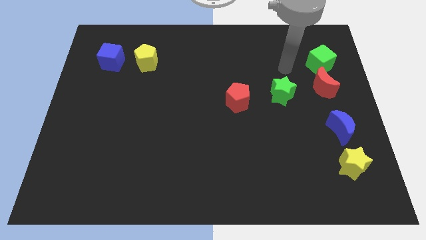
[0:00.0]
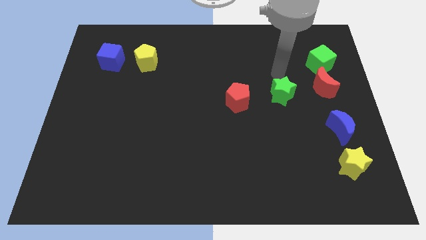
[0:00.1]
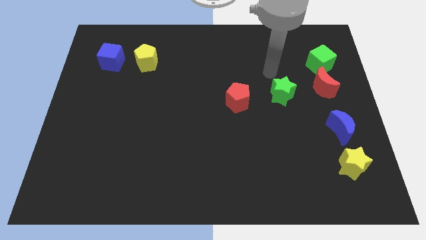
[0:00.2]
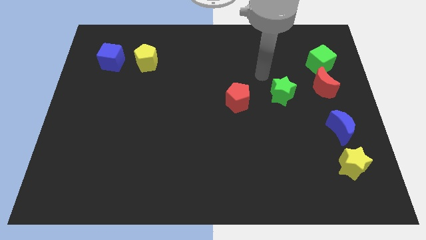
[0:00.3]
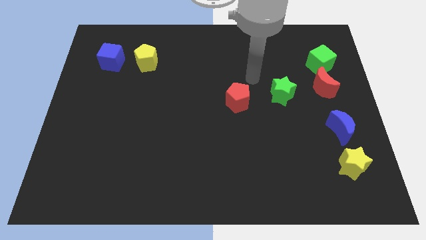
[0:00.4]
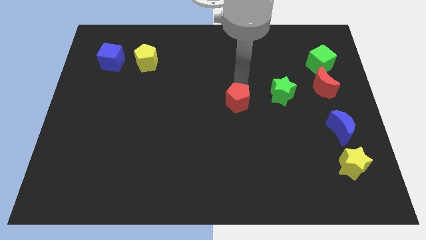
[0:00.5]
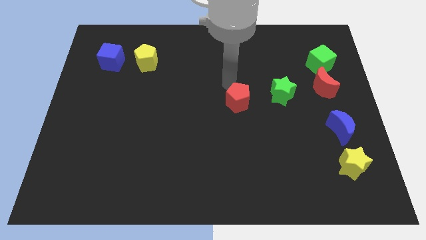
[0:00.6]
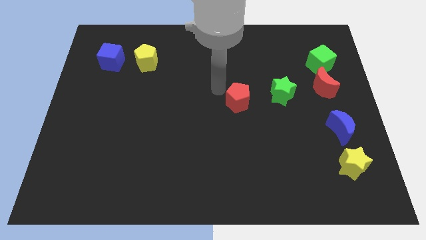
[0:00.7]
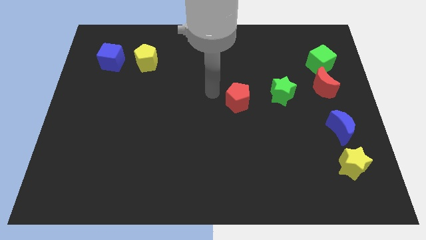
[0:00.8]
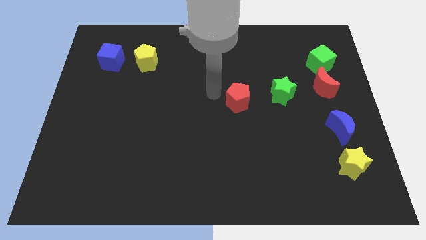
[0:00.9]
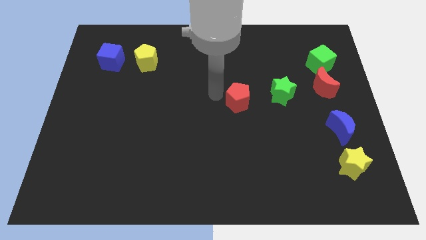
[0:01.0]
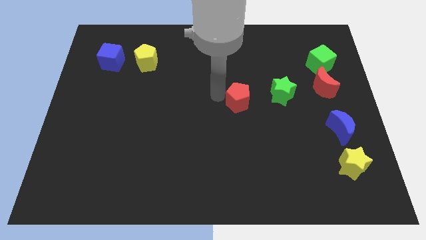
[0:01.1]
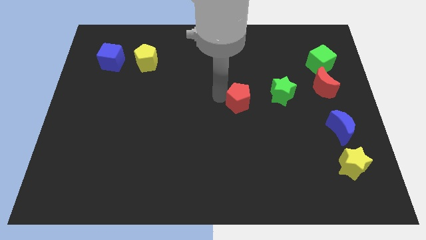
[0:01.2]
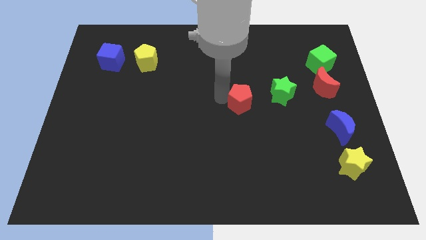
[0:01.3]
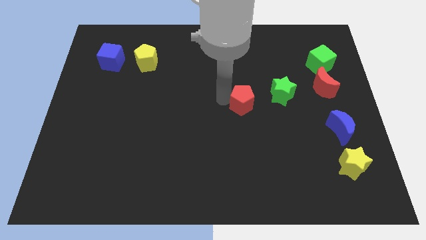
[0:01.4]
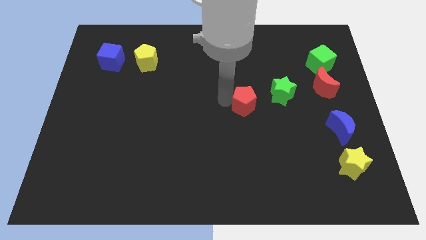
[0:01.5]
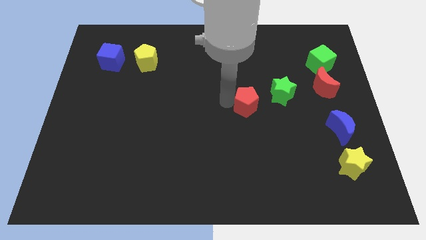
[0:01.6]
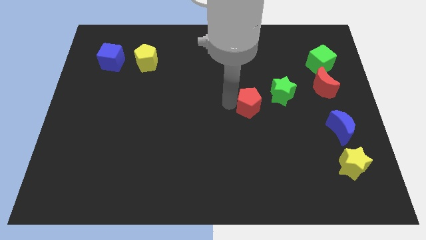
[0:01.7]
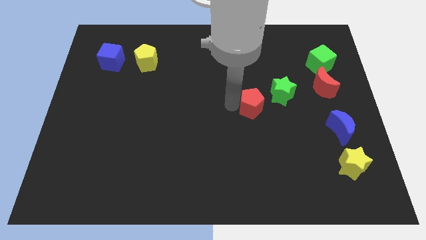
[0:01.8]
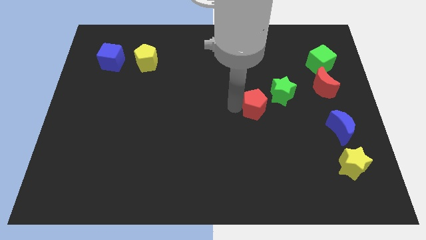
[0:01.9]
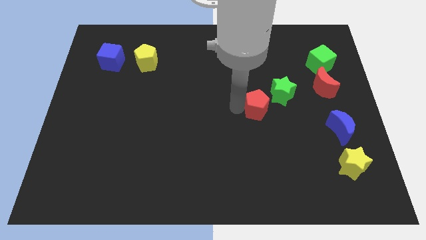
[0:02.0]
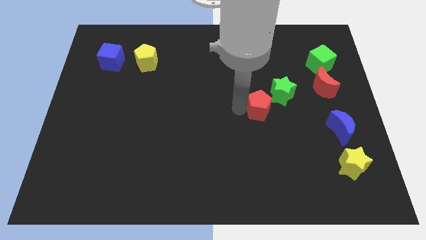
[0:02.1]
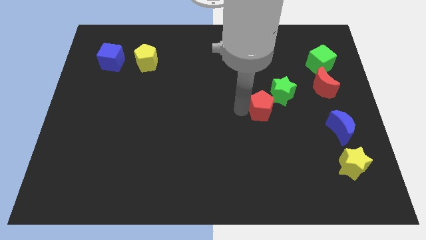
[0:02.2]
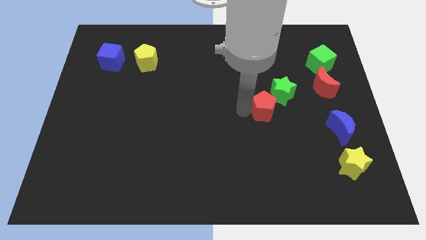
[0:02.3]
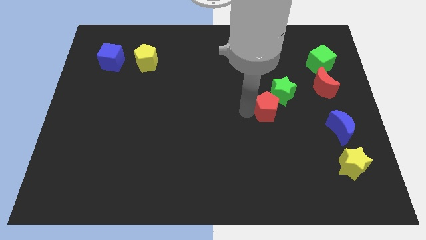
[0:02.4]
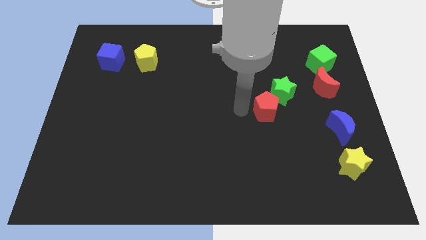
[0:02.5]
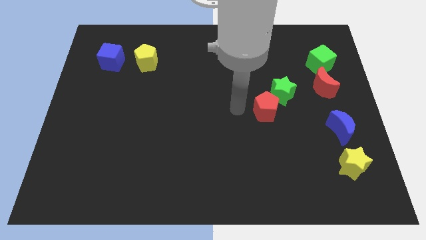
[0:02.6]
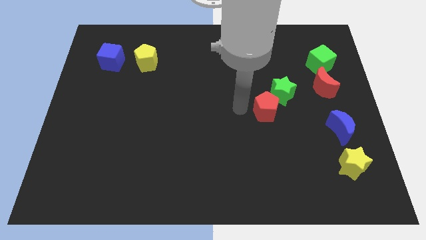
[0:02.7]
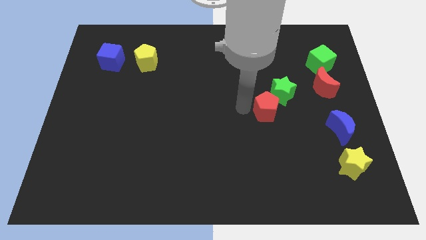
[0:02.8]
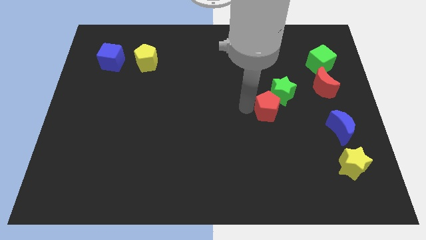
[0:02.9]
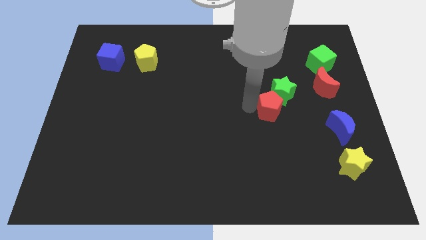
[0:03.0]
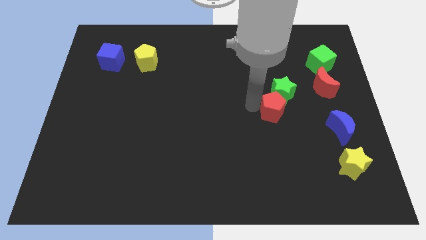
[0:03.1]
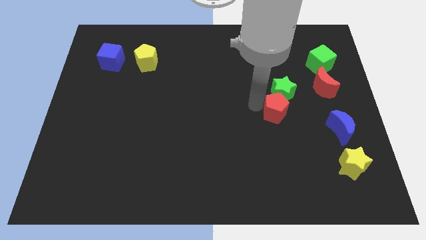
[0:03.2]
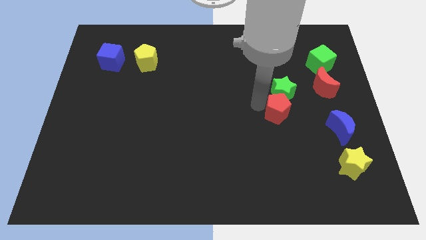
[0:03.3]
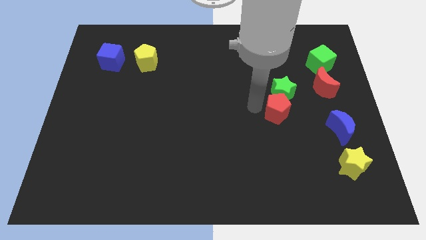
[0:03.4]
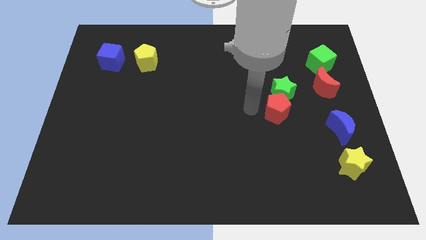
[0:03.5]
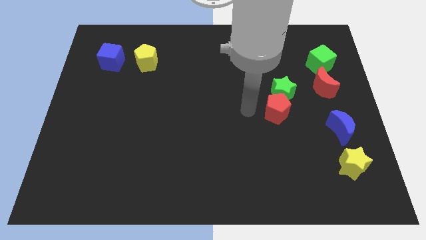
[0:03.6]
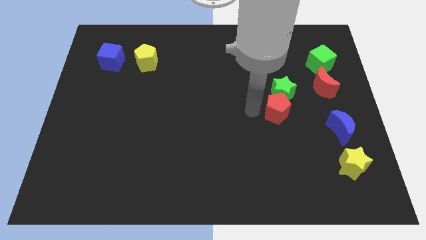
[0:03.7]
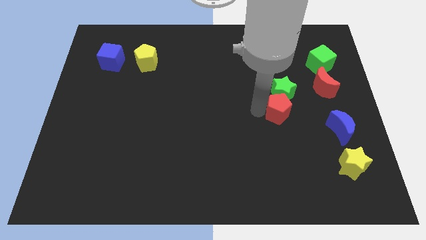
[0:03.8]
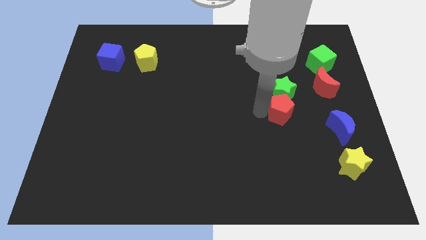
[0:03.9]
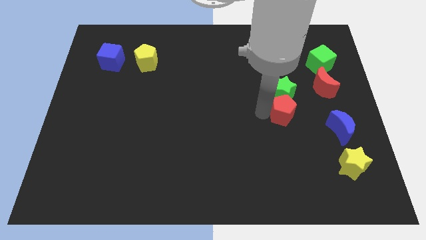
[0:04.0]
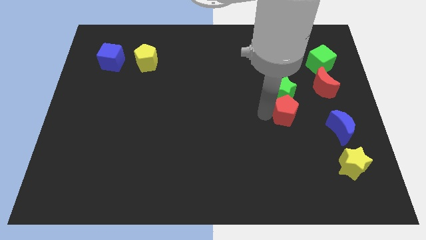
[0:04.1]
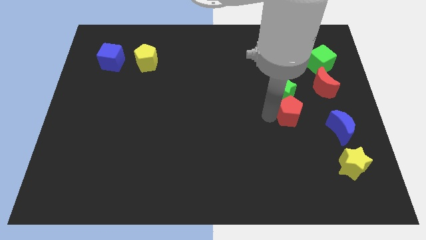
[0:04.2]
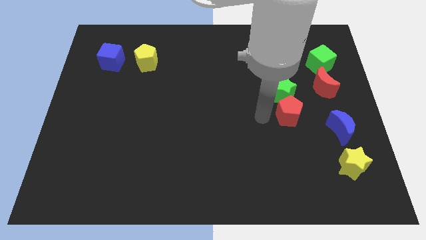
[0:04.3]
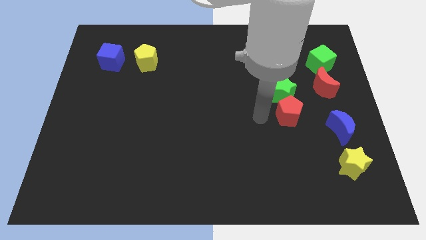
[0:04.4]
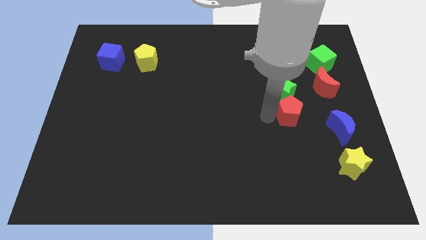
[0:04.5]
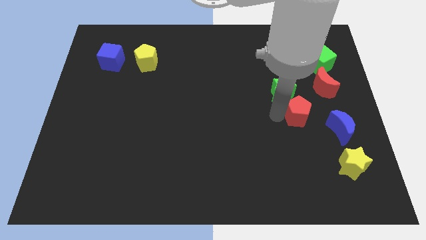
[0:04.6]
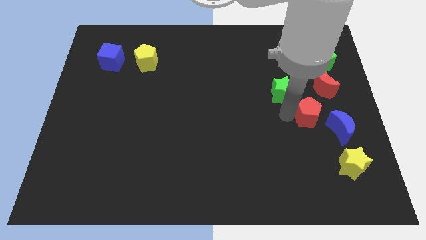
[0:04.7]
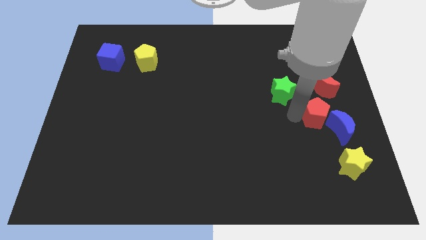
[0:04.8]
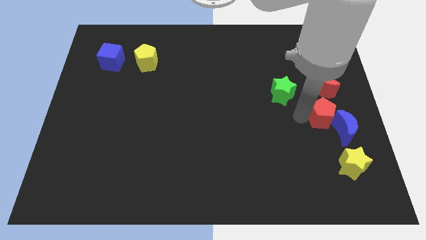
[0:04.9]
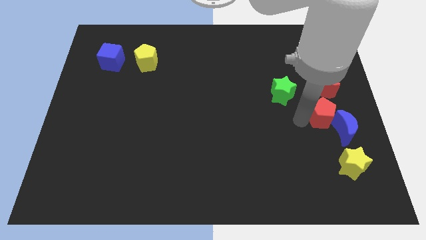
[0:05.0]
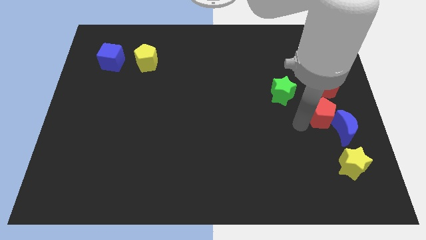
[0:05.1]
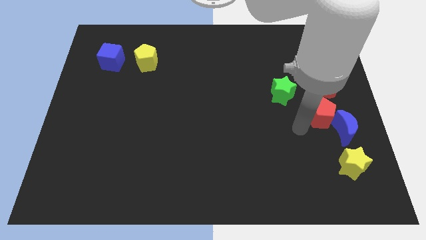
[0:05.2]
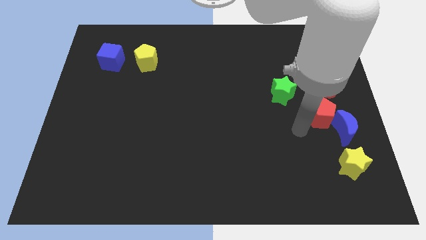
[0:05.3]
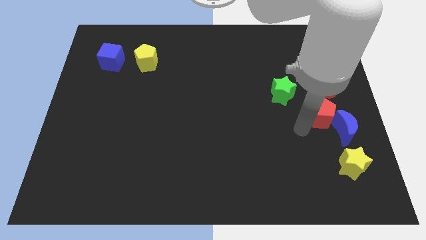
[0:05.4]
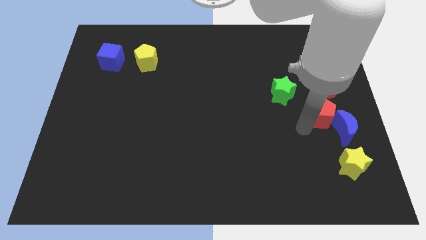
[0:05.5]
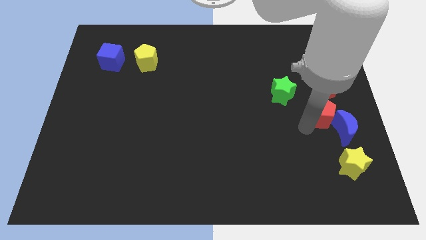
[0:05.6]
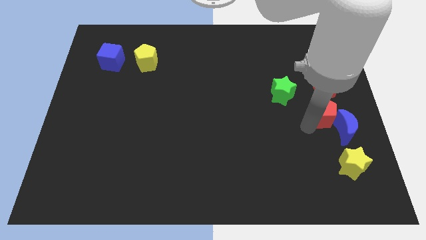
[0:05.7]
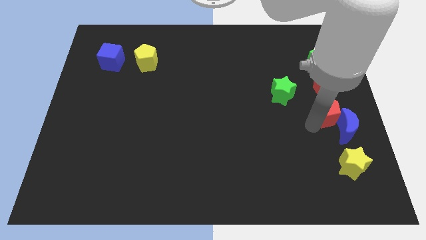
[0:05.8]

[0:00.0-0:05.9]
put the red pentagon to the right side of the board

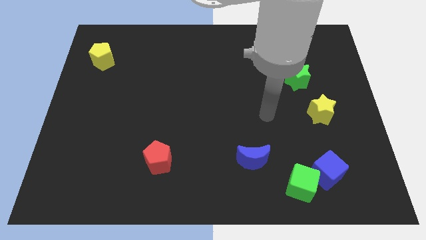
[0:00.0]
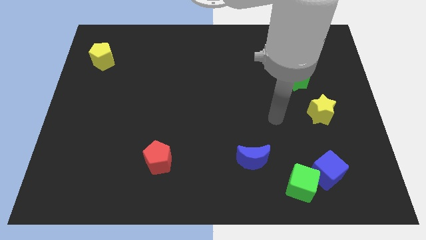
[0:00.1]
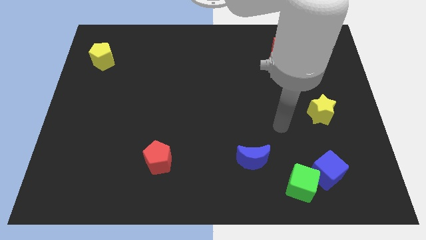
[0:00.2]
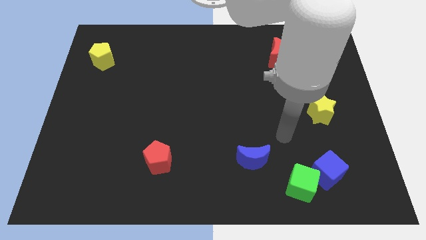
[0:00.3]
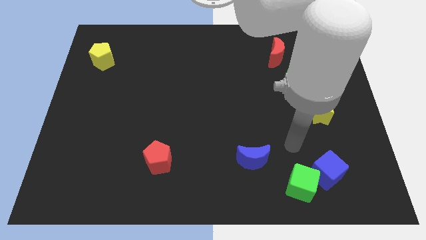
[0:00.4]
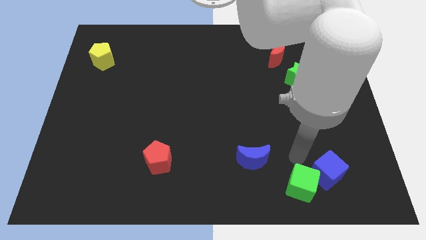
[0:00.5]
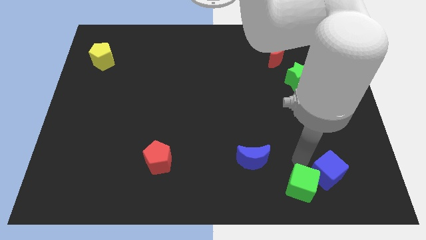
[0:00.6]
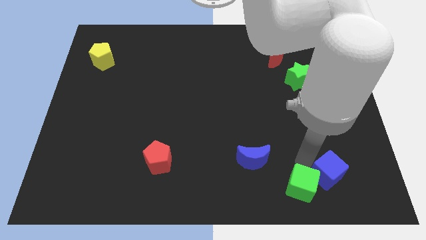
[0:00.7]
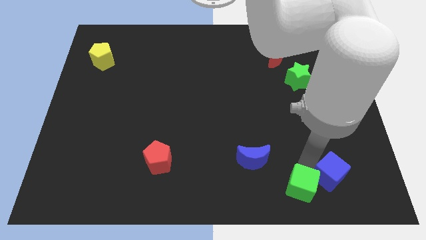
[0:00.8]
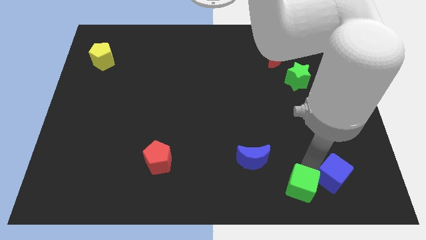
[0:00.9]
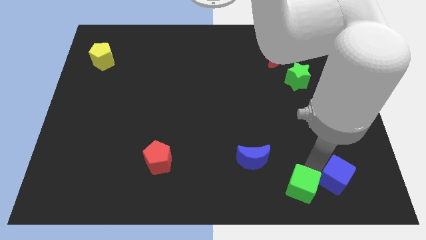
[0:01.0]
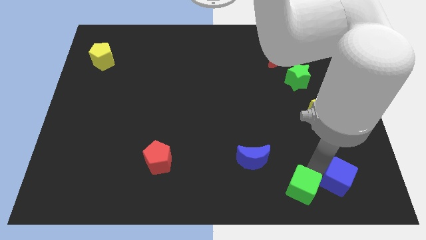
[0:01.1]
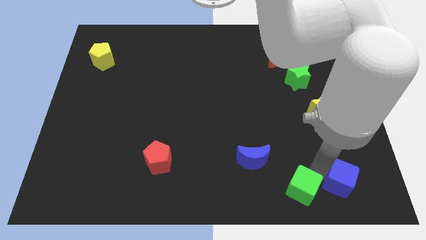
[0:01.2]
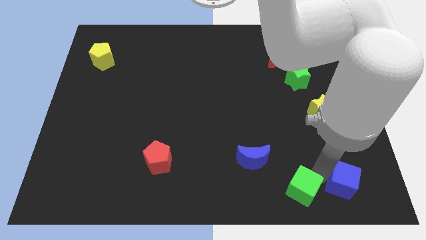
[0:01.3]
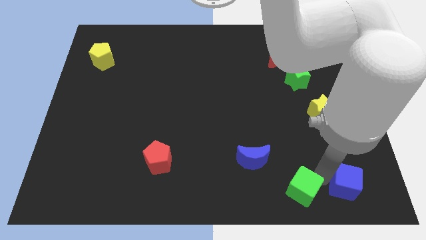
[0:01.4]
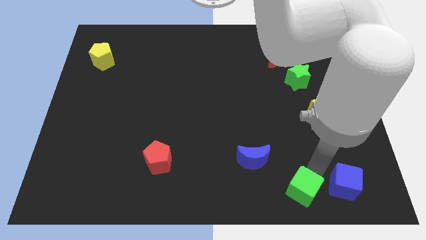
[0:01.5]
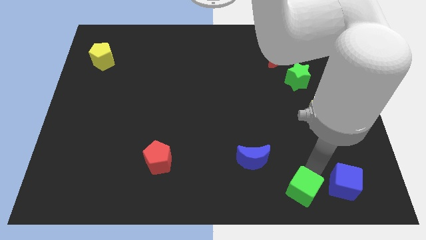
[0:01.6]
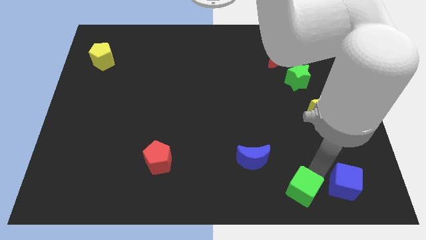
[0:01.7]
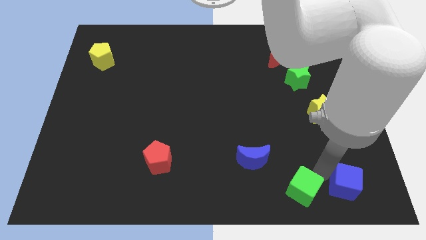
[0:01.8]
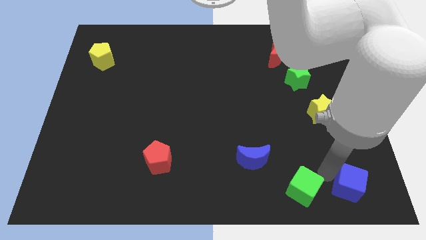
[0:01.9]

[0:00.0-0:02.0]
push the blue cube to the bottom right of the board
